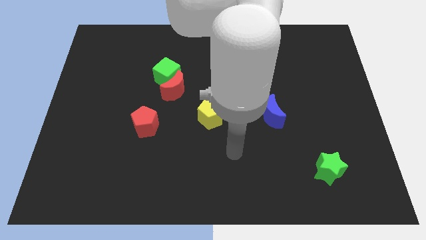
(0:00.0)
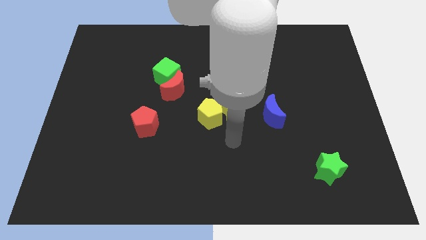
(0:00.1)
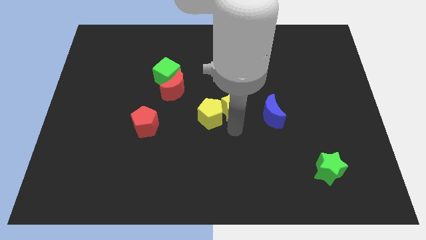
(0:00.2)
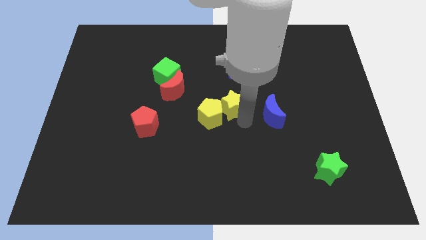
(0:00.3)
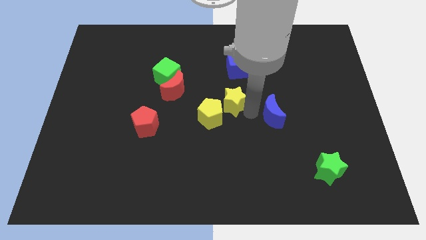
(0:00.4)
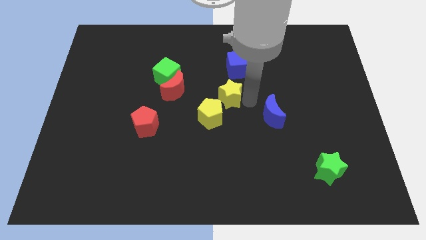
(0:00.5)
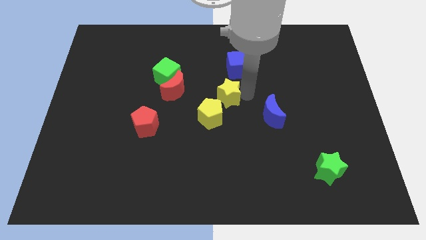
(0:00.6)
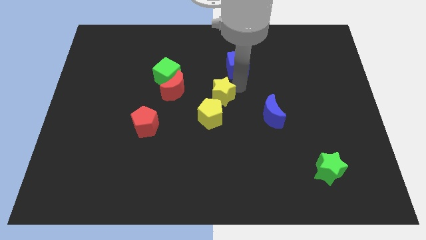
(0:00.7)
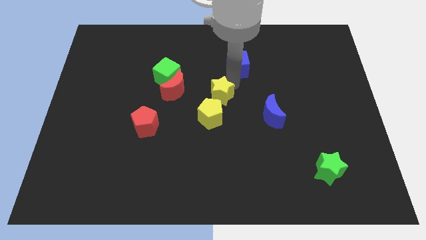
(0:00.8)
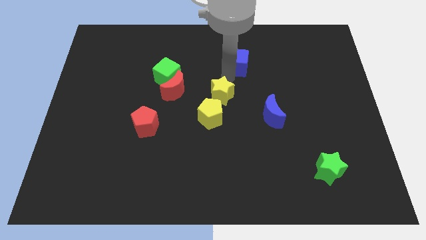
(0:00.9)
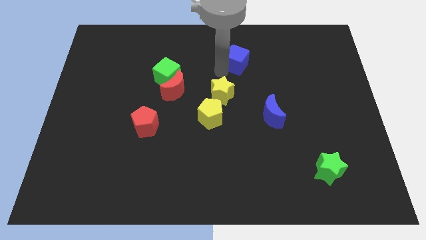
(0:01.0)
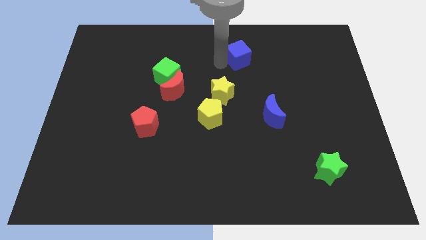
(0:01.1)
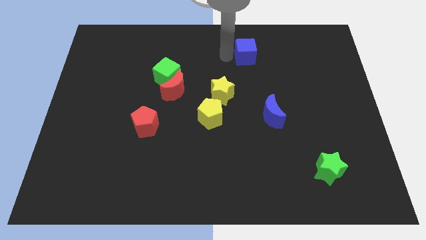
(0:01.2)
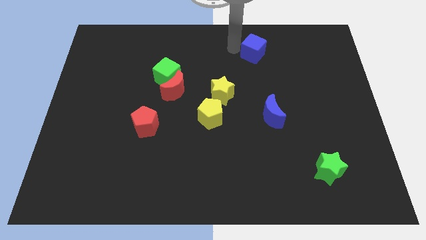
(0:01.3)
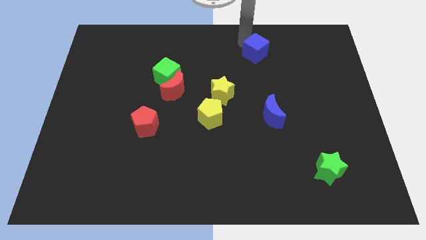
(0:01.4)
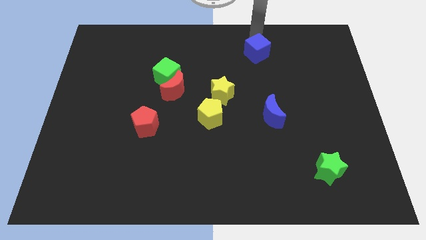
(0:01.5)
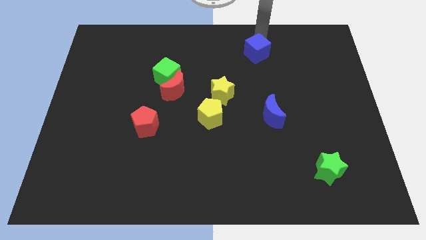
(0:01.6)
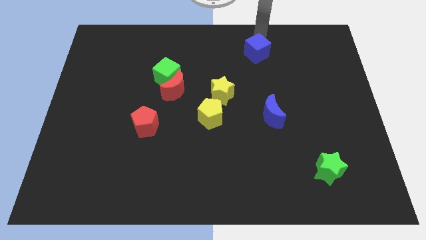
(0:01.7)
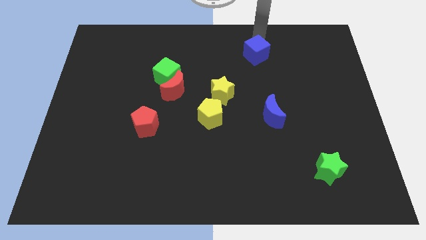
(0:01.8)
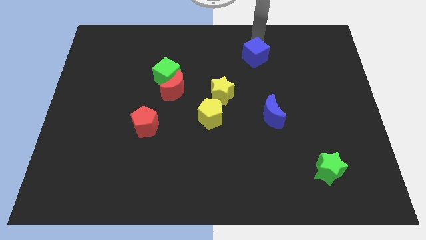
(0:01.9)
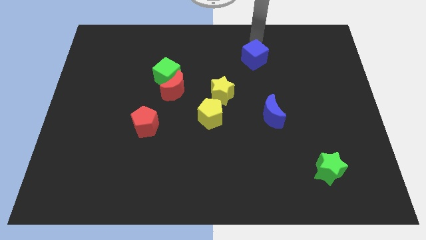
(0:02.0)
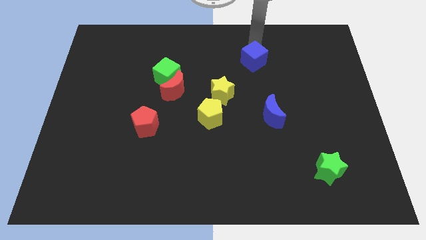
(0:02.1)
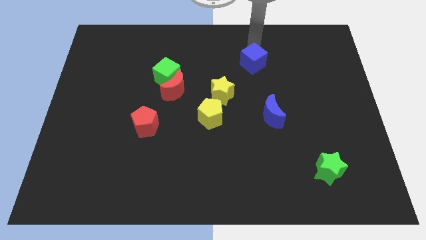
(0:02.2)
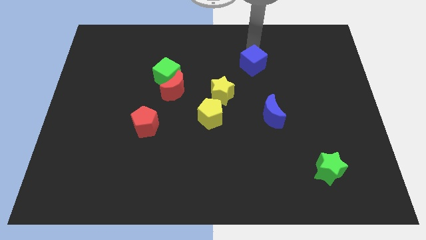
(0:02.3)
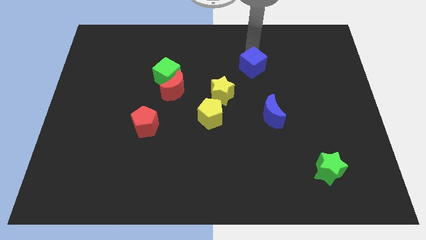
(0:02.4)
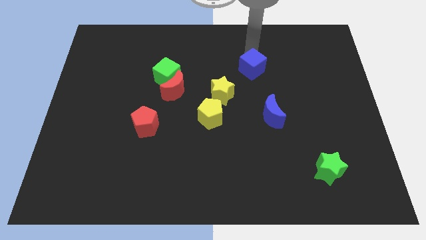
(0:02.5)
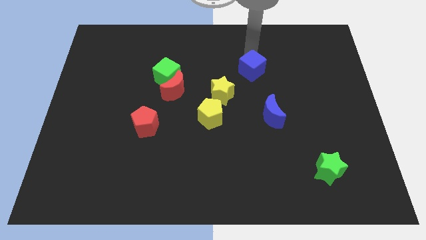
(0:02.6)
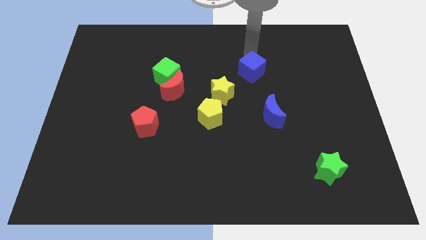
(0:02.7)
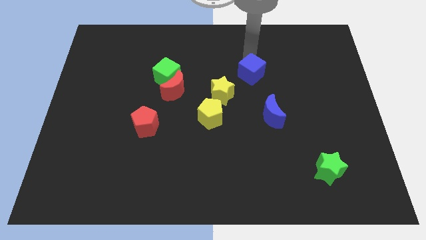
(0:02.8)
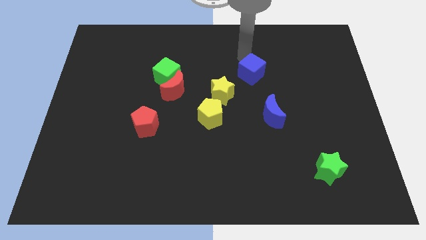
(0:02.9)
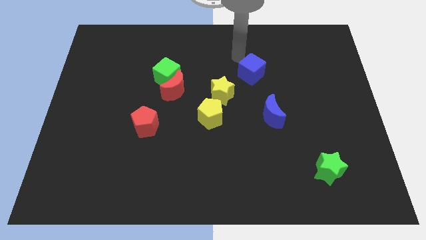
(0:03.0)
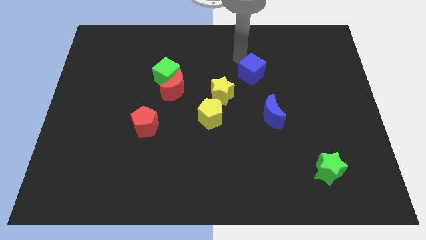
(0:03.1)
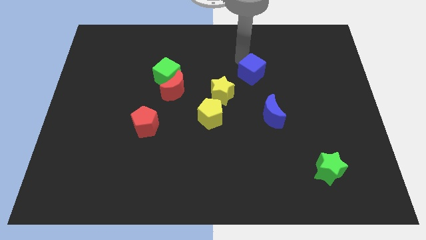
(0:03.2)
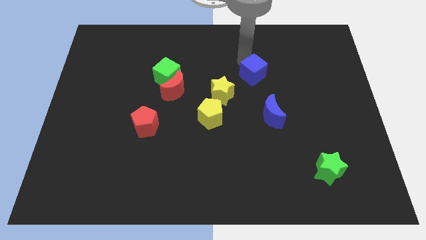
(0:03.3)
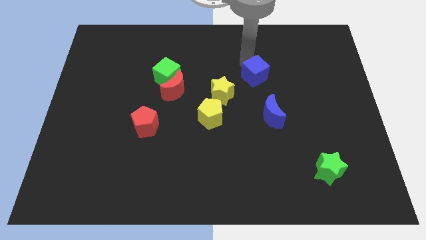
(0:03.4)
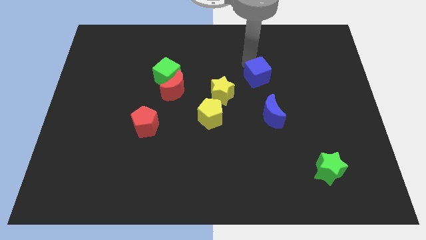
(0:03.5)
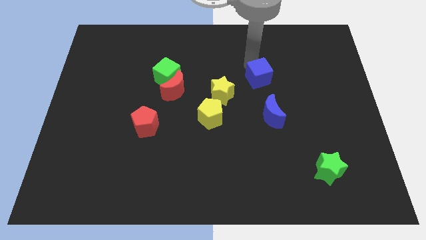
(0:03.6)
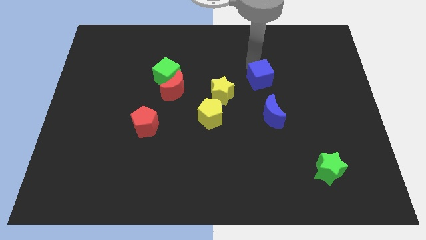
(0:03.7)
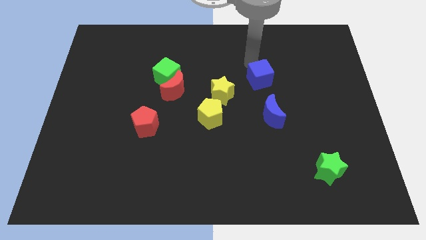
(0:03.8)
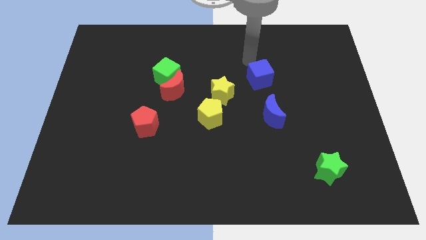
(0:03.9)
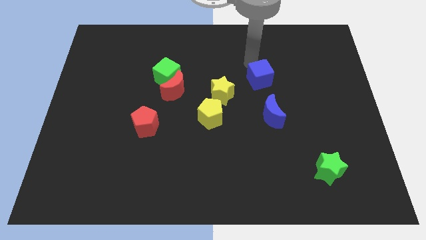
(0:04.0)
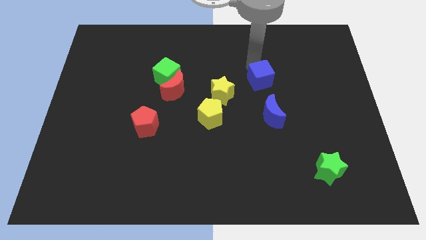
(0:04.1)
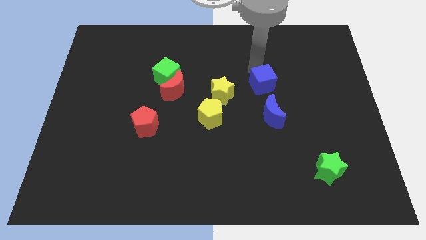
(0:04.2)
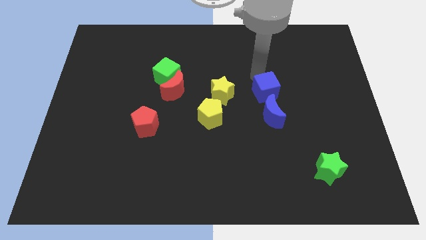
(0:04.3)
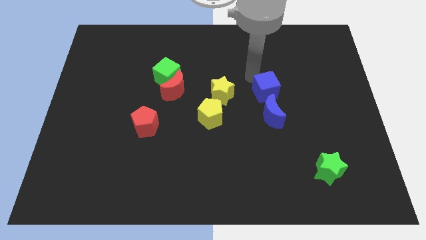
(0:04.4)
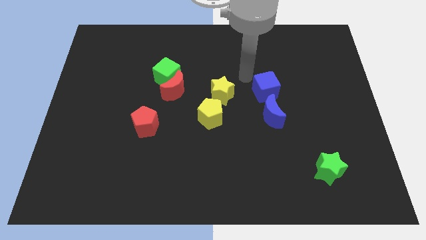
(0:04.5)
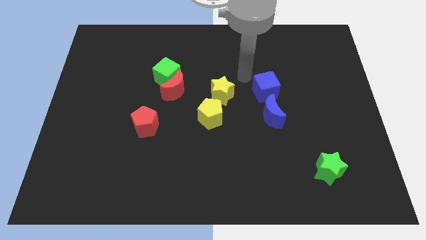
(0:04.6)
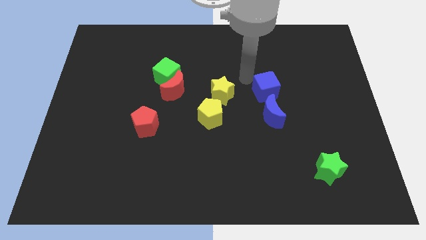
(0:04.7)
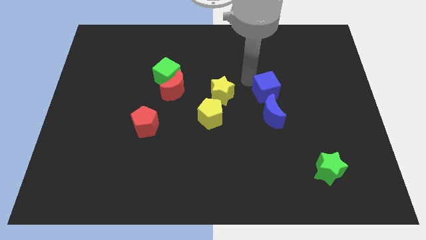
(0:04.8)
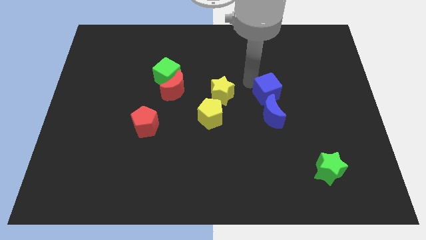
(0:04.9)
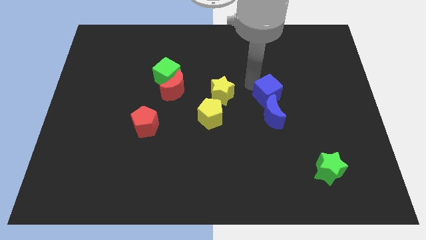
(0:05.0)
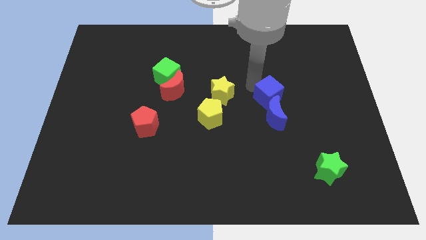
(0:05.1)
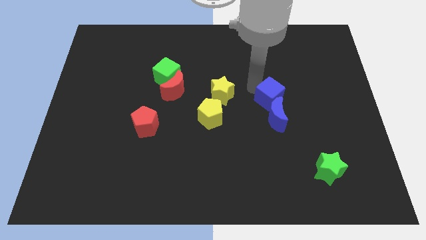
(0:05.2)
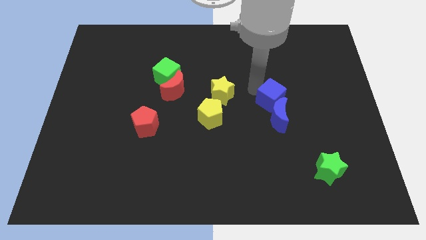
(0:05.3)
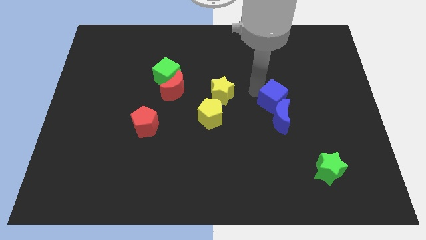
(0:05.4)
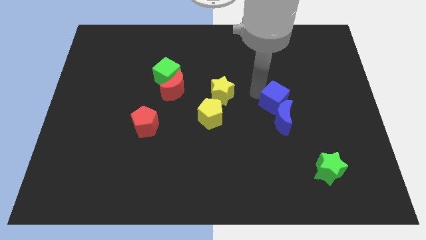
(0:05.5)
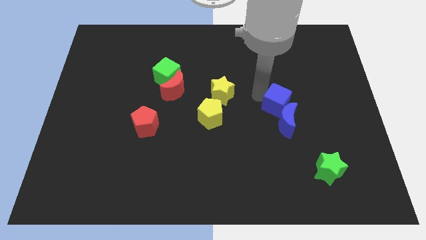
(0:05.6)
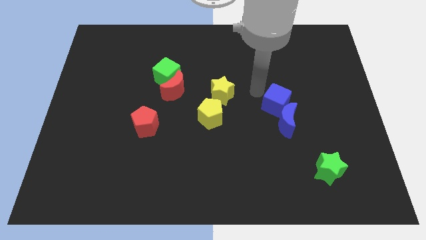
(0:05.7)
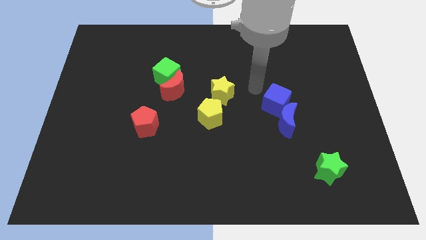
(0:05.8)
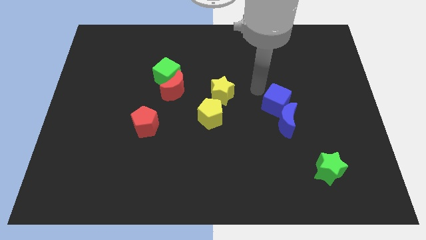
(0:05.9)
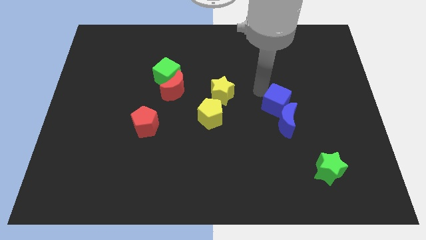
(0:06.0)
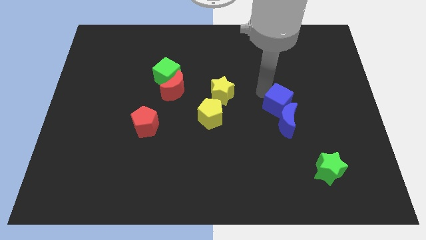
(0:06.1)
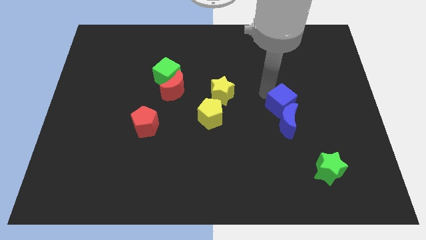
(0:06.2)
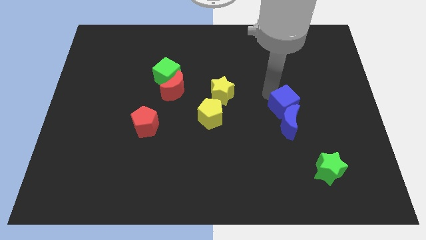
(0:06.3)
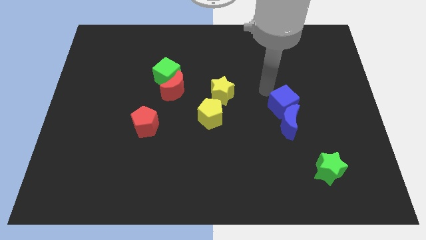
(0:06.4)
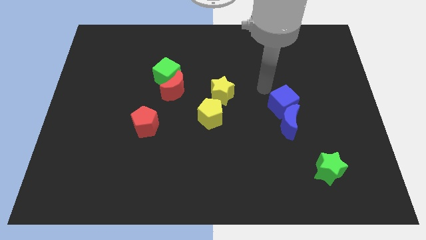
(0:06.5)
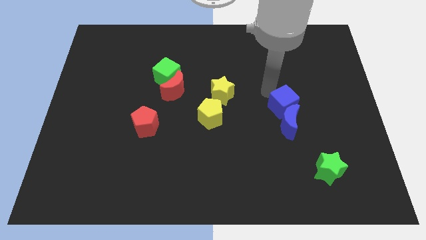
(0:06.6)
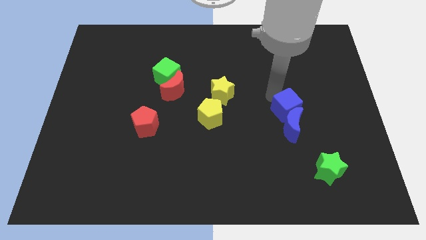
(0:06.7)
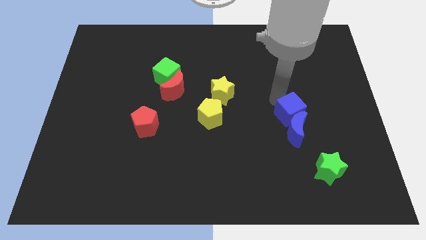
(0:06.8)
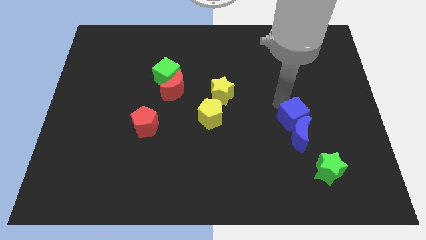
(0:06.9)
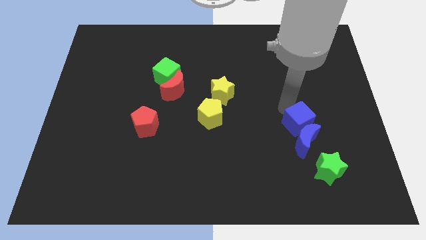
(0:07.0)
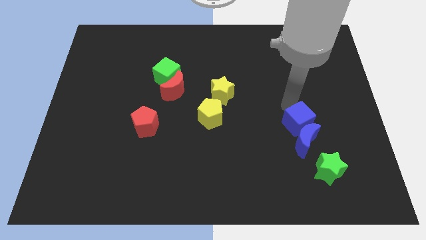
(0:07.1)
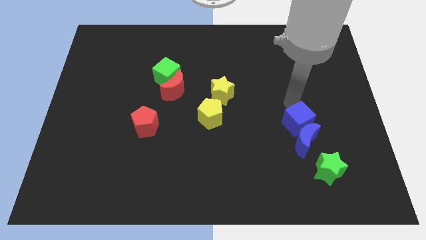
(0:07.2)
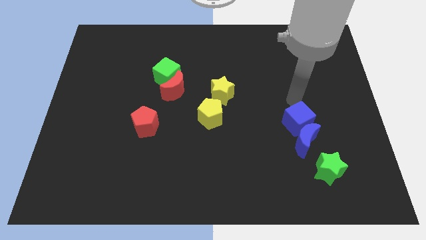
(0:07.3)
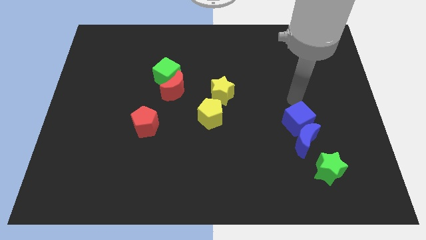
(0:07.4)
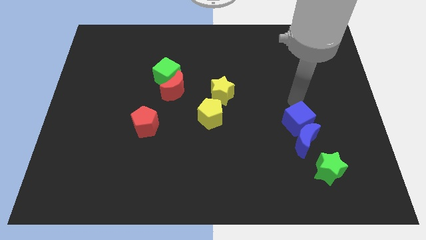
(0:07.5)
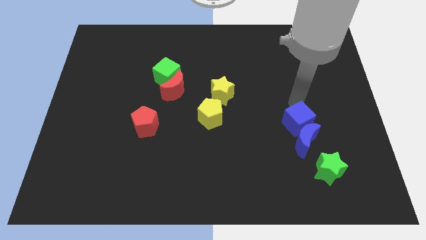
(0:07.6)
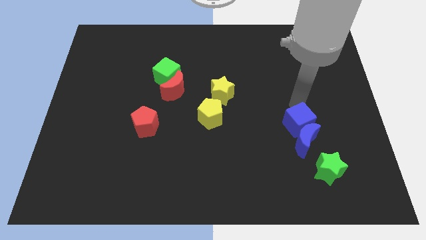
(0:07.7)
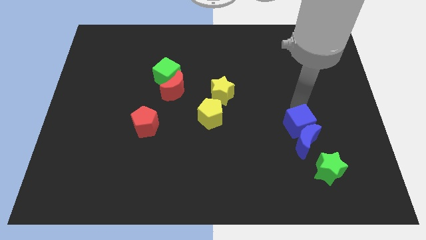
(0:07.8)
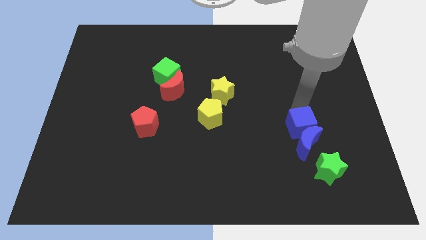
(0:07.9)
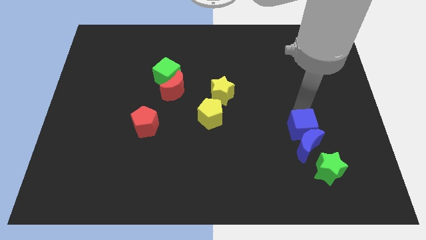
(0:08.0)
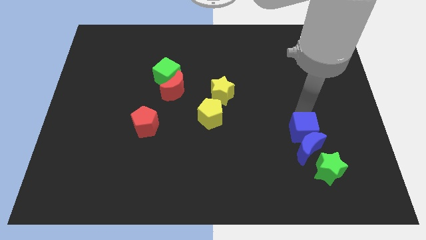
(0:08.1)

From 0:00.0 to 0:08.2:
push the blue cube to the top left side of the green star
